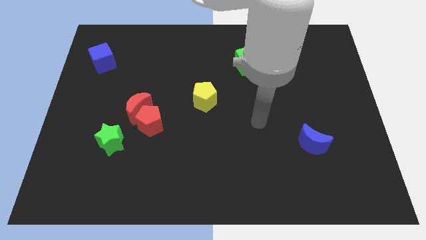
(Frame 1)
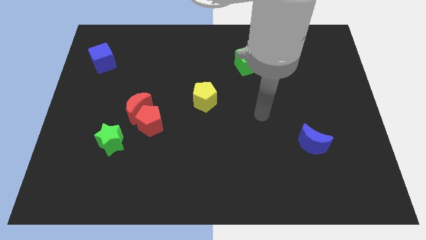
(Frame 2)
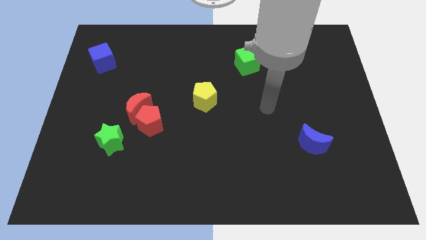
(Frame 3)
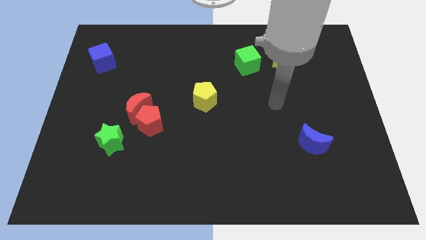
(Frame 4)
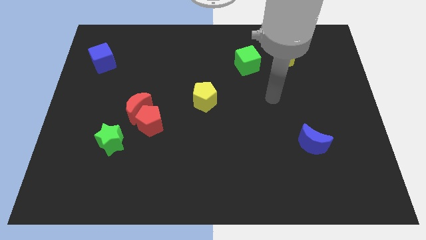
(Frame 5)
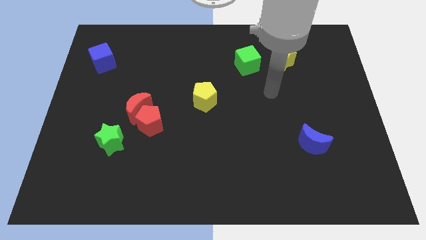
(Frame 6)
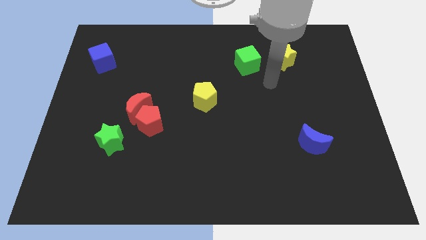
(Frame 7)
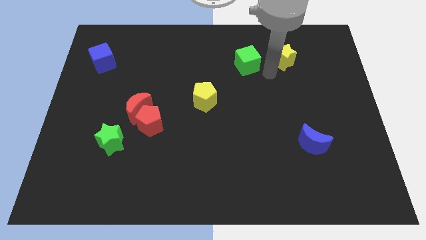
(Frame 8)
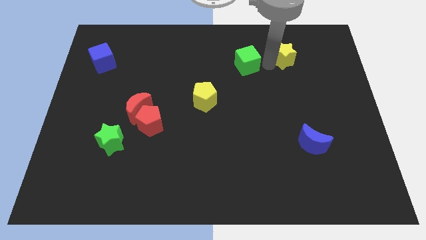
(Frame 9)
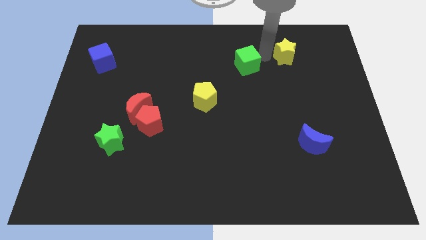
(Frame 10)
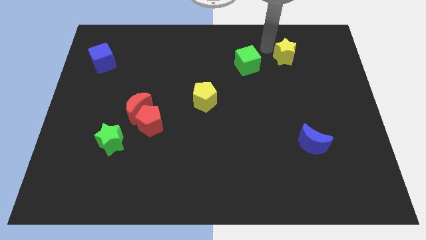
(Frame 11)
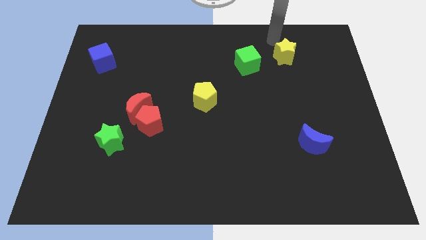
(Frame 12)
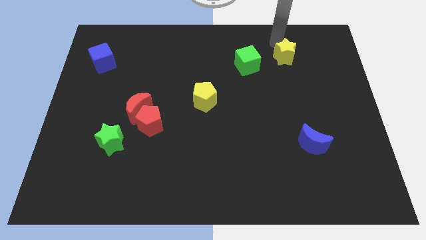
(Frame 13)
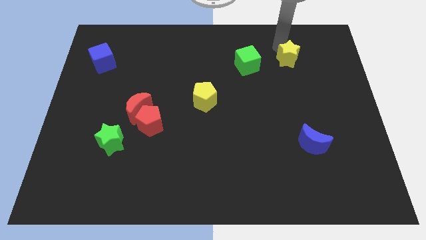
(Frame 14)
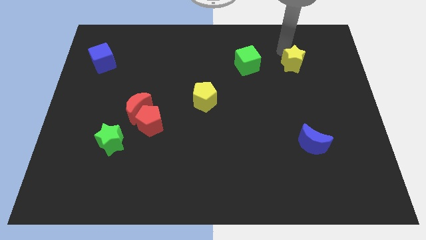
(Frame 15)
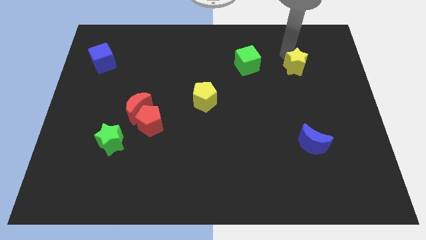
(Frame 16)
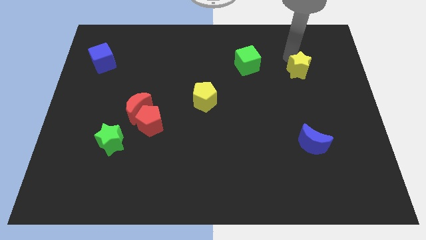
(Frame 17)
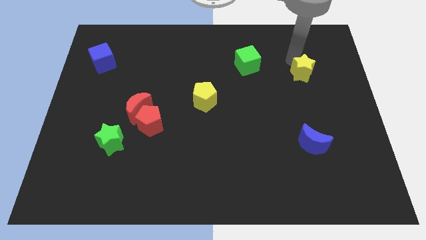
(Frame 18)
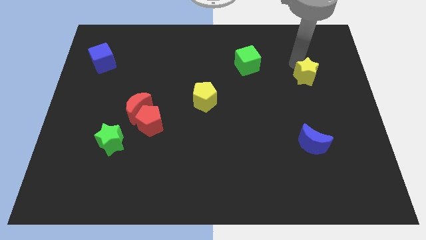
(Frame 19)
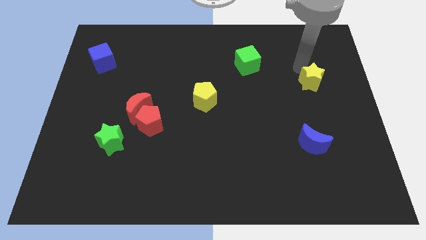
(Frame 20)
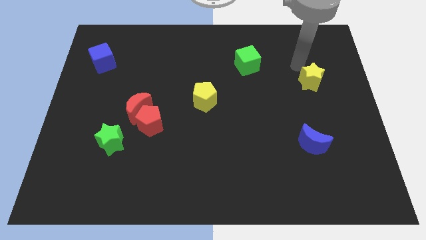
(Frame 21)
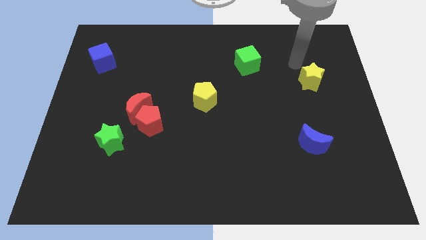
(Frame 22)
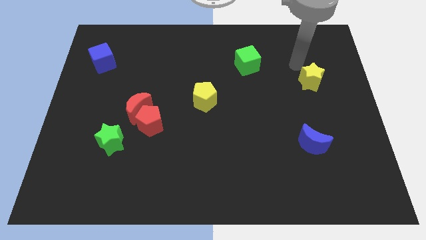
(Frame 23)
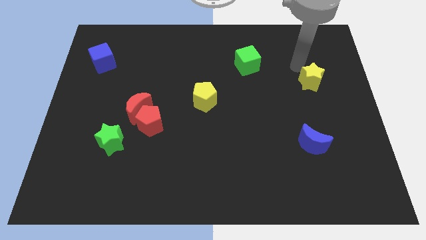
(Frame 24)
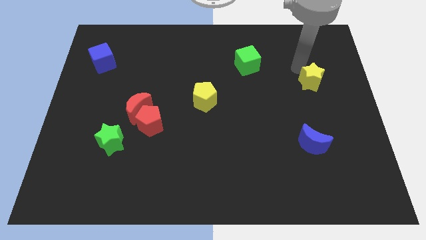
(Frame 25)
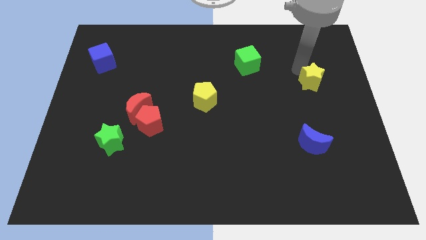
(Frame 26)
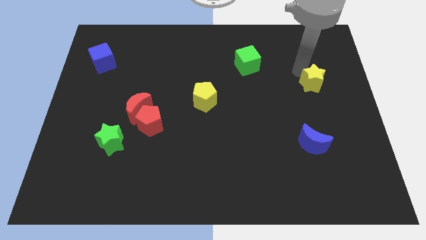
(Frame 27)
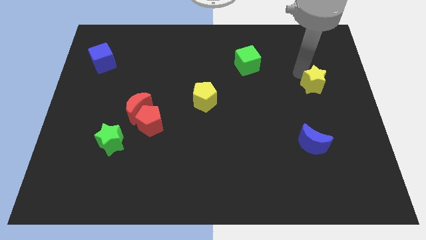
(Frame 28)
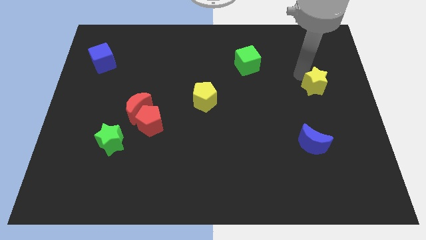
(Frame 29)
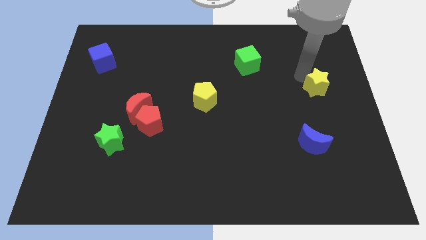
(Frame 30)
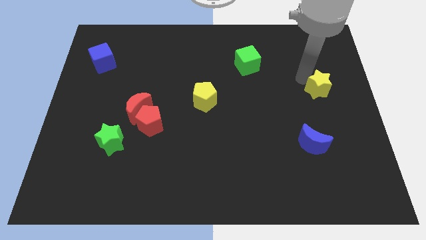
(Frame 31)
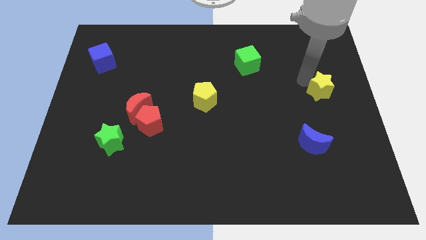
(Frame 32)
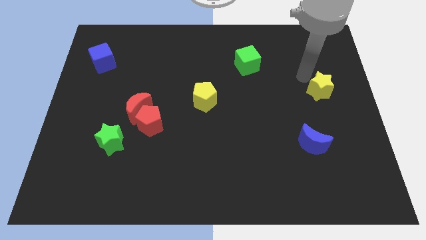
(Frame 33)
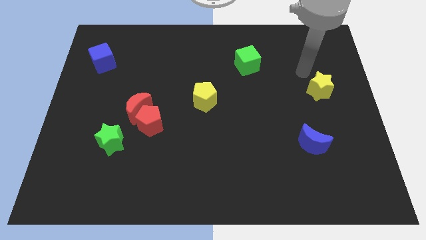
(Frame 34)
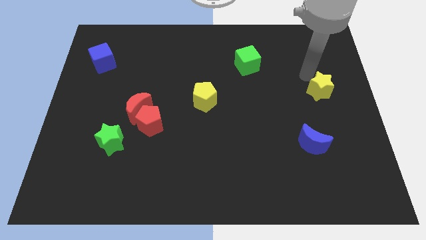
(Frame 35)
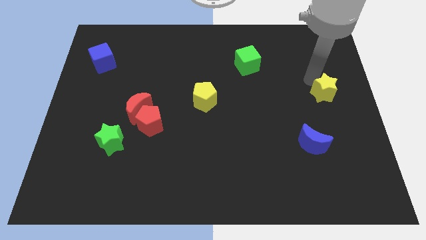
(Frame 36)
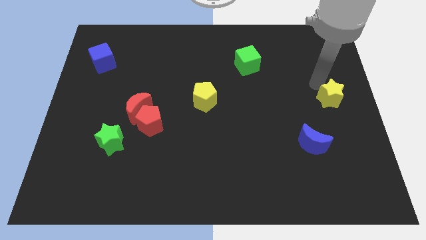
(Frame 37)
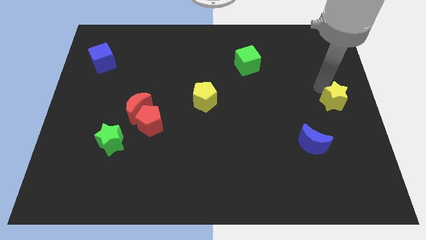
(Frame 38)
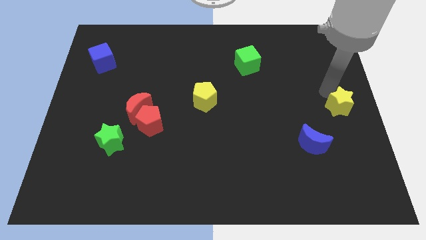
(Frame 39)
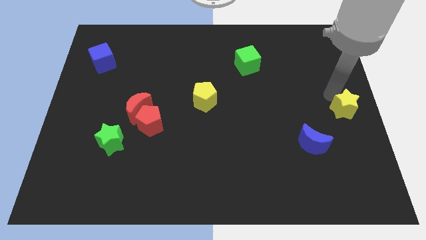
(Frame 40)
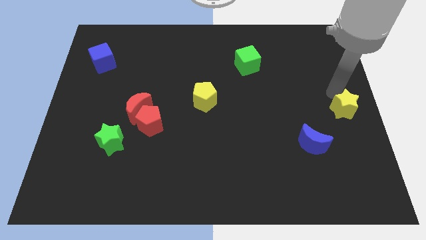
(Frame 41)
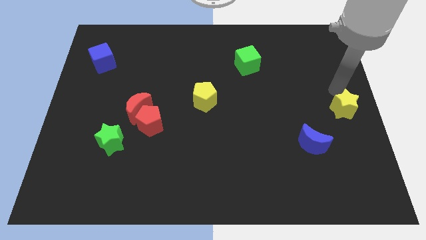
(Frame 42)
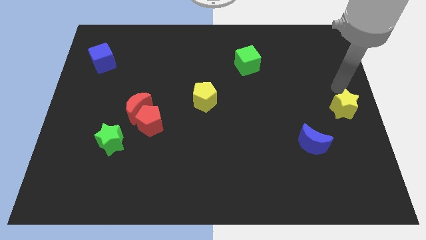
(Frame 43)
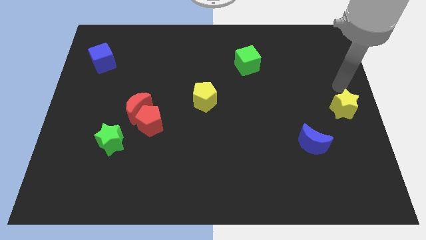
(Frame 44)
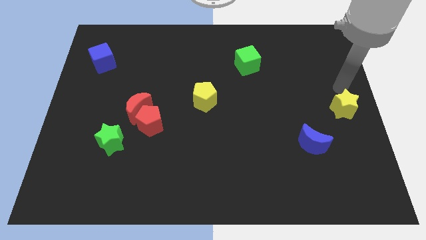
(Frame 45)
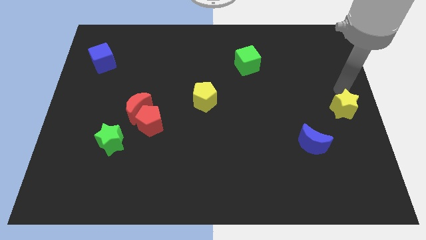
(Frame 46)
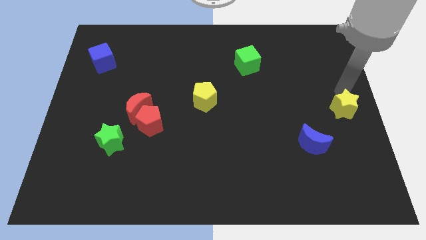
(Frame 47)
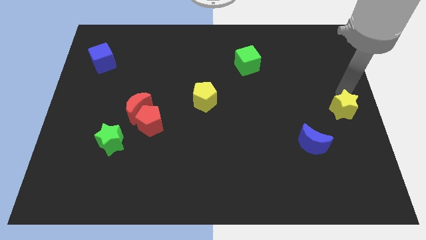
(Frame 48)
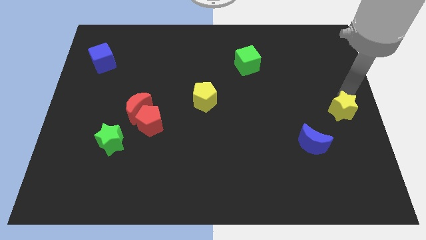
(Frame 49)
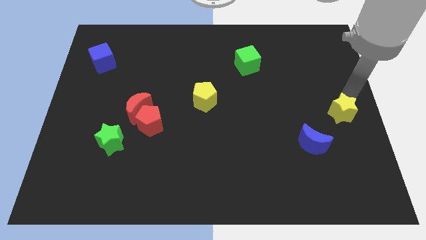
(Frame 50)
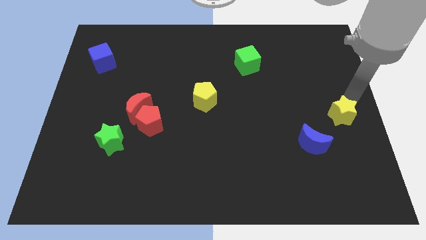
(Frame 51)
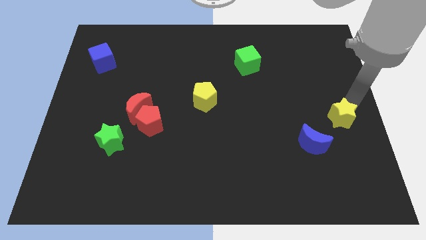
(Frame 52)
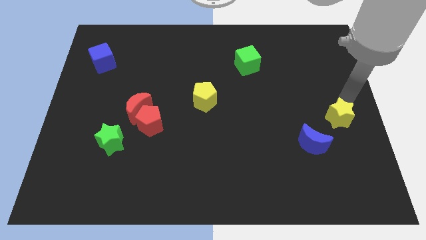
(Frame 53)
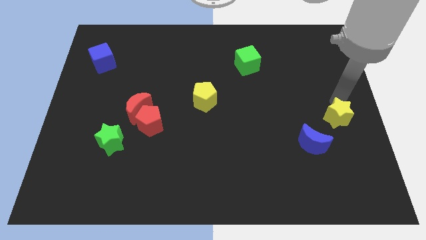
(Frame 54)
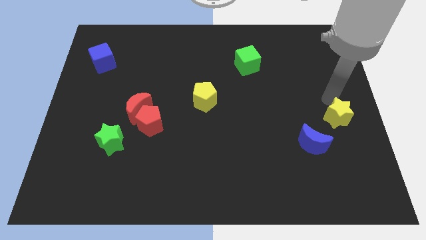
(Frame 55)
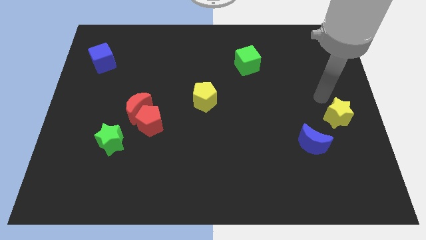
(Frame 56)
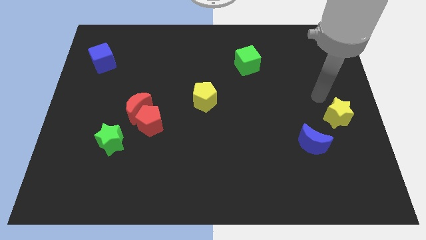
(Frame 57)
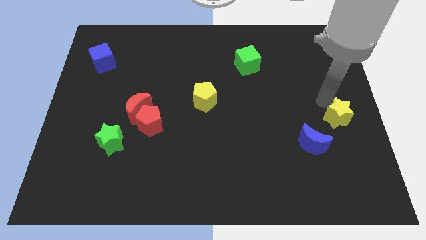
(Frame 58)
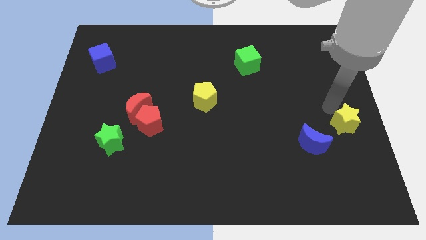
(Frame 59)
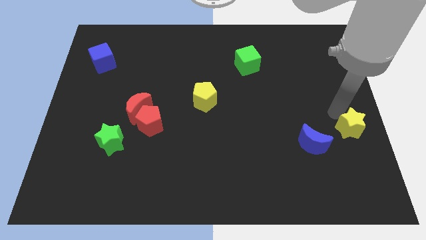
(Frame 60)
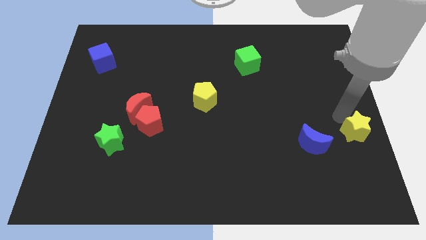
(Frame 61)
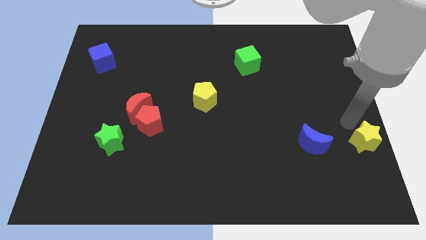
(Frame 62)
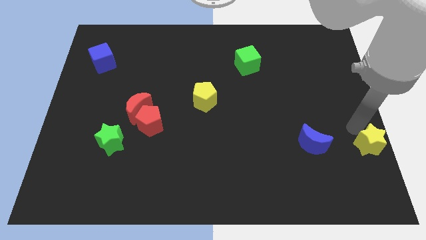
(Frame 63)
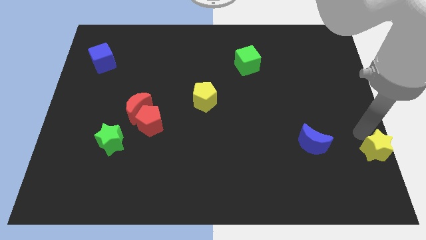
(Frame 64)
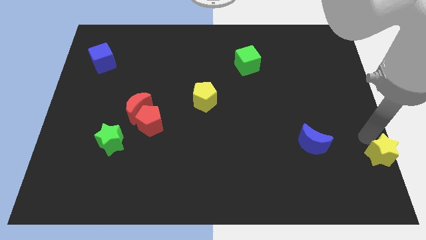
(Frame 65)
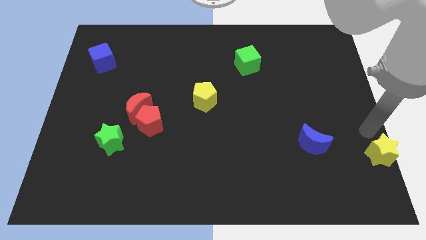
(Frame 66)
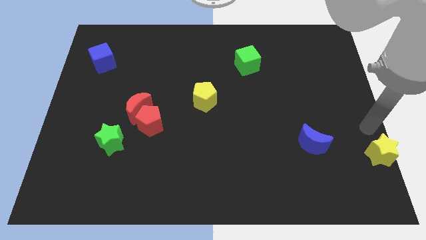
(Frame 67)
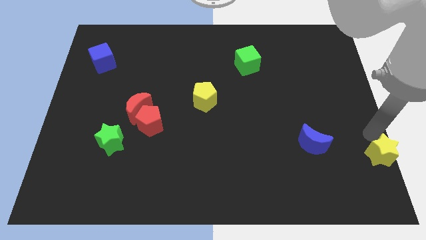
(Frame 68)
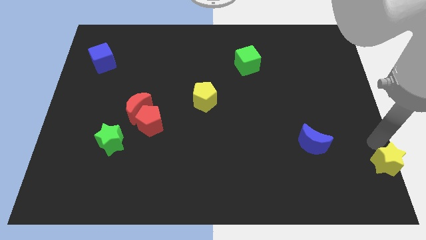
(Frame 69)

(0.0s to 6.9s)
put the yellow star to the bottom right corner
